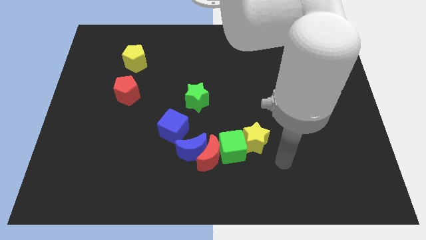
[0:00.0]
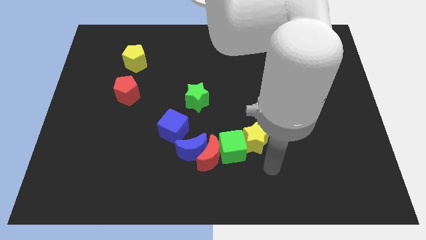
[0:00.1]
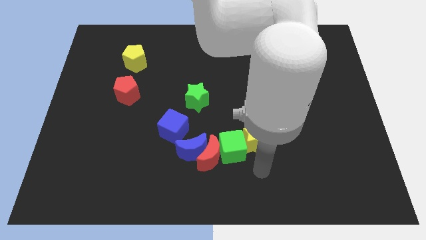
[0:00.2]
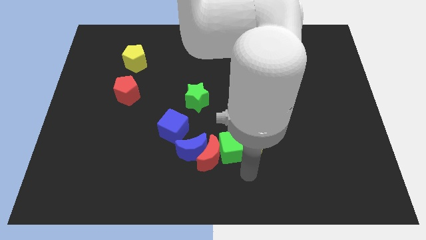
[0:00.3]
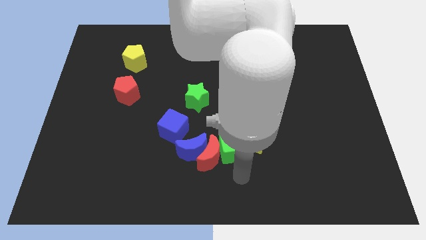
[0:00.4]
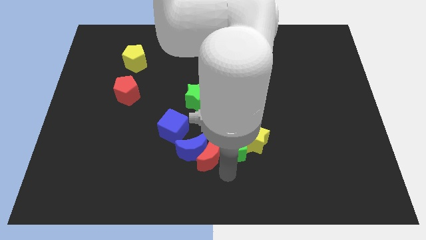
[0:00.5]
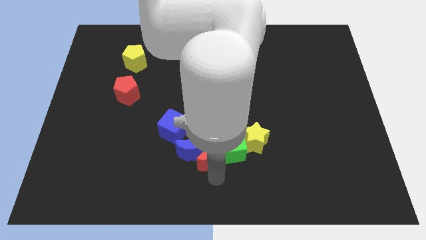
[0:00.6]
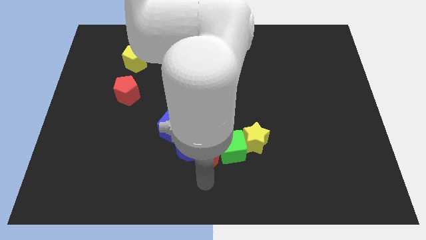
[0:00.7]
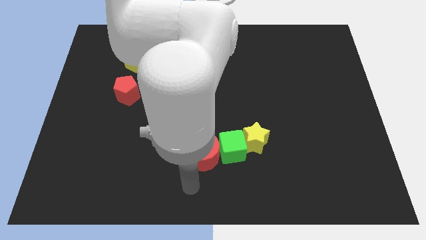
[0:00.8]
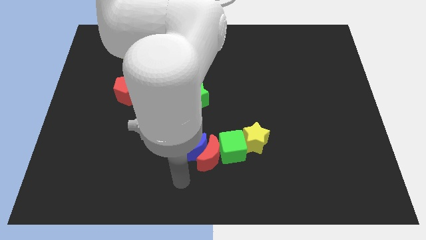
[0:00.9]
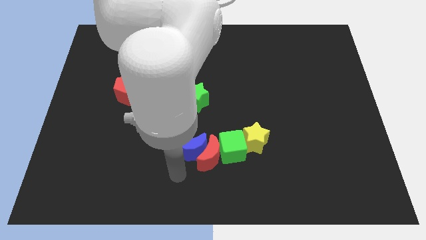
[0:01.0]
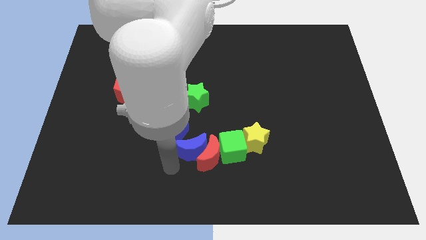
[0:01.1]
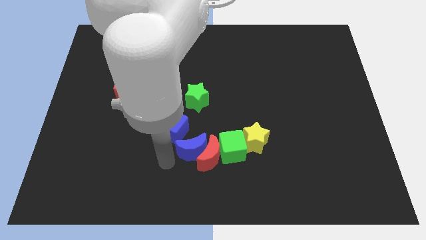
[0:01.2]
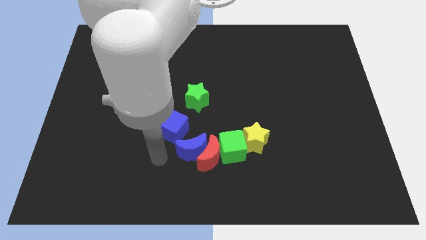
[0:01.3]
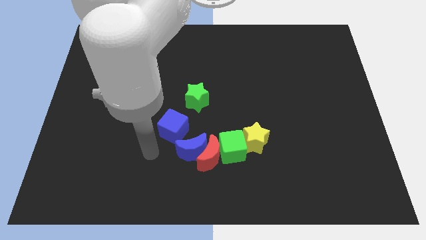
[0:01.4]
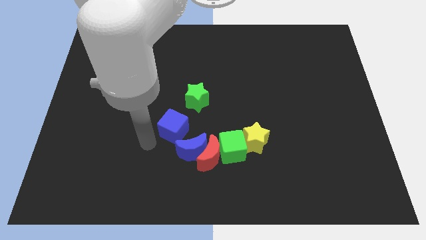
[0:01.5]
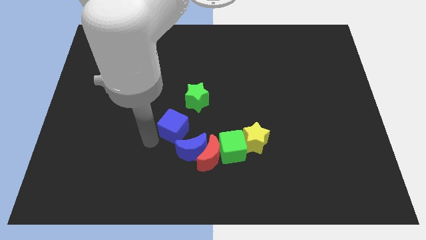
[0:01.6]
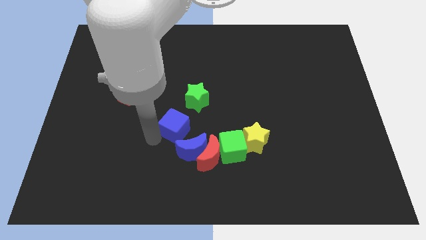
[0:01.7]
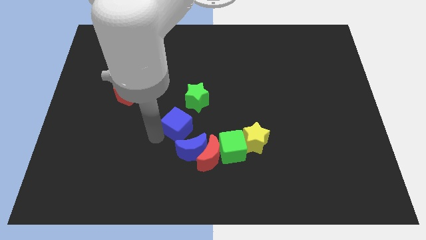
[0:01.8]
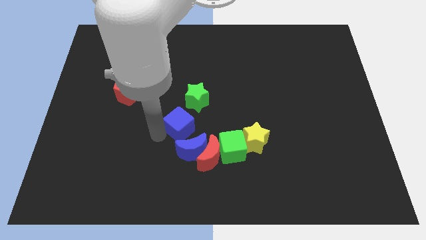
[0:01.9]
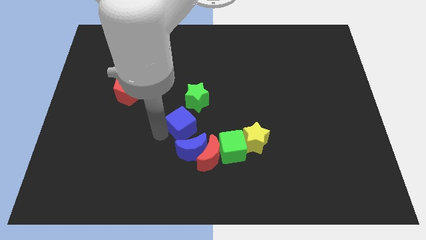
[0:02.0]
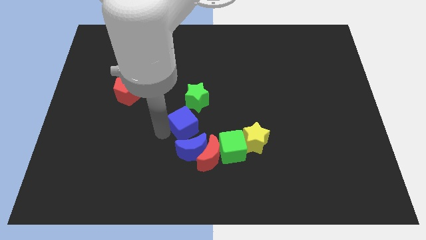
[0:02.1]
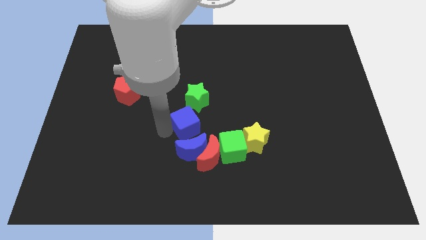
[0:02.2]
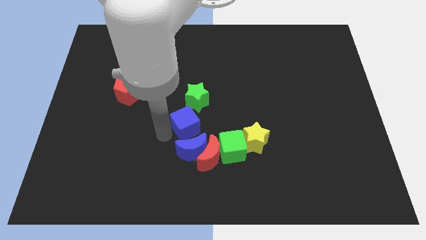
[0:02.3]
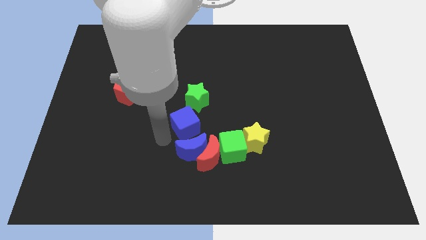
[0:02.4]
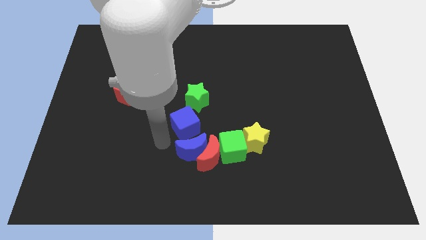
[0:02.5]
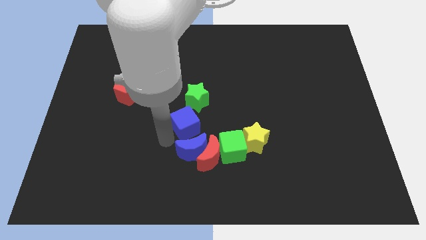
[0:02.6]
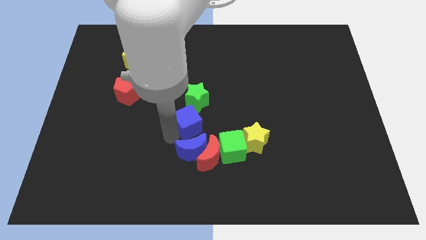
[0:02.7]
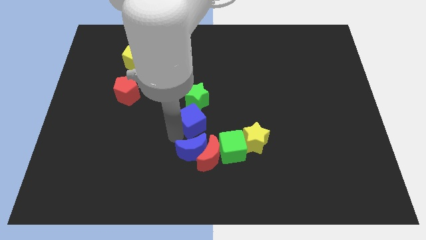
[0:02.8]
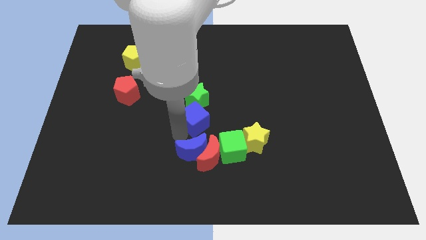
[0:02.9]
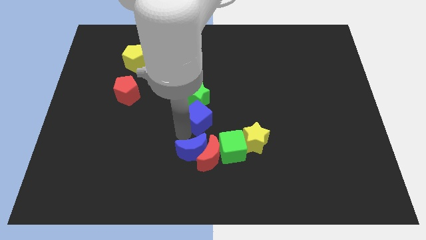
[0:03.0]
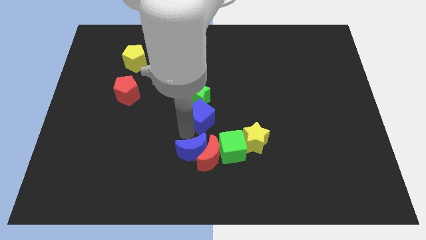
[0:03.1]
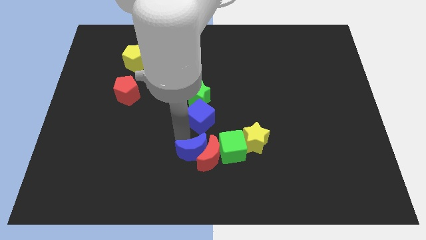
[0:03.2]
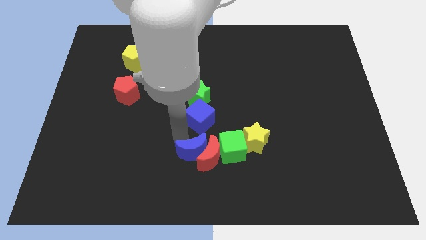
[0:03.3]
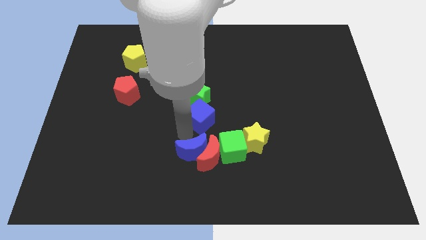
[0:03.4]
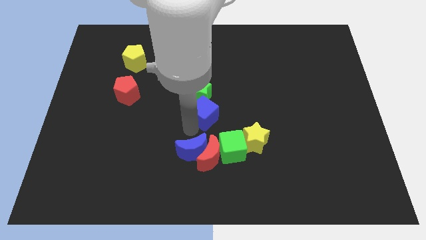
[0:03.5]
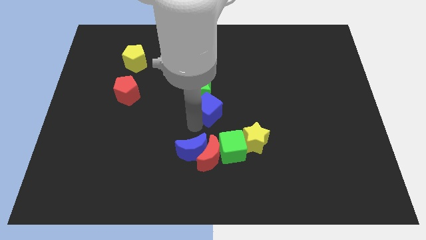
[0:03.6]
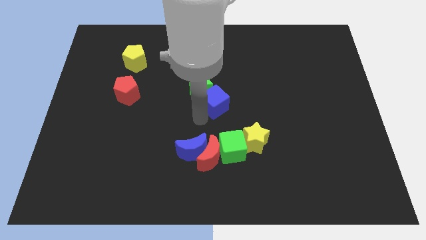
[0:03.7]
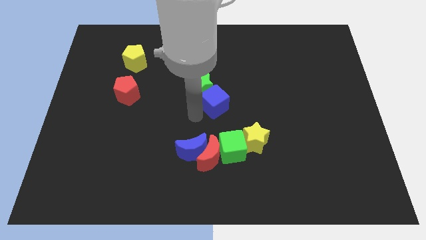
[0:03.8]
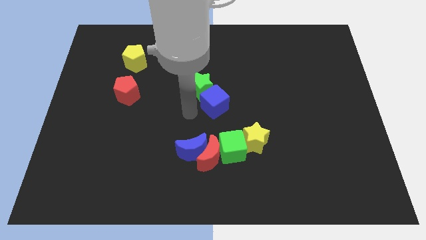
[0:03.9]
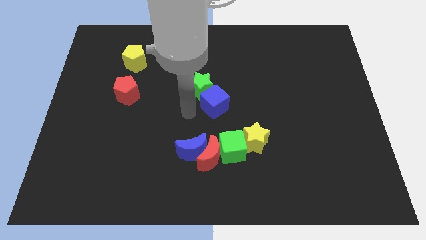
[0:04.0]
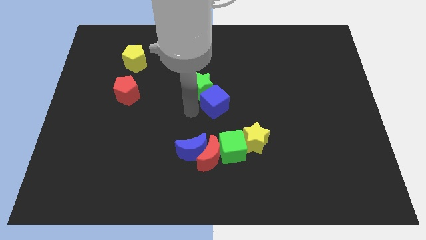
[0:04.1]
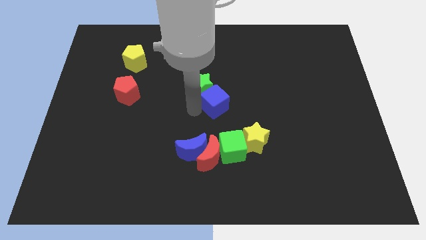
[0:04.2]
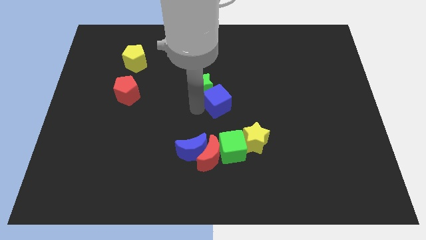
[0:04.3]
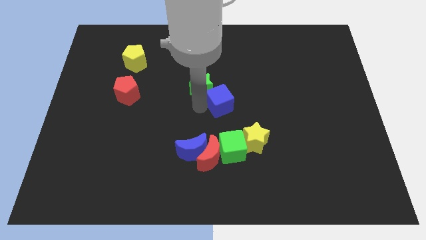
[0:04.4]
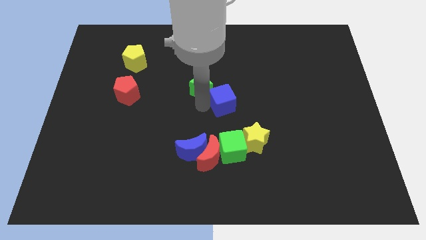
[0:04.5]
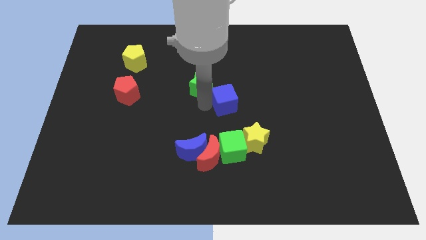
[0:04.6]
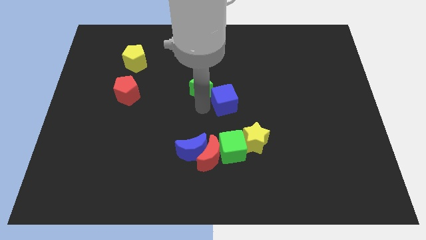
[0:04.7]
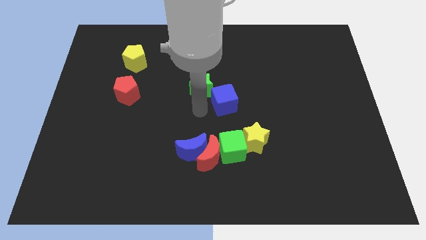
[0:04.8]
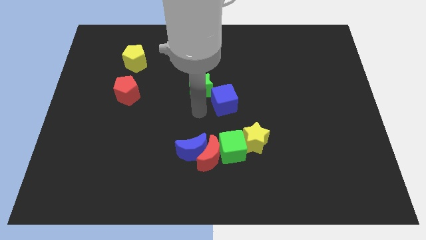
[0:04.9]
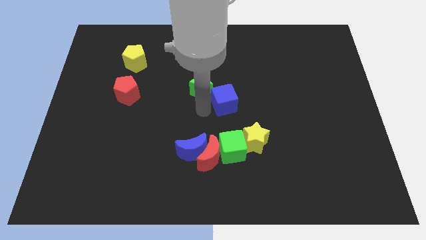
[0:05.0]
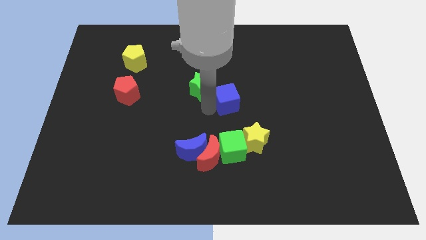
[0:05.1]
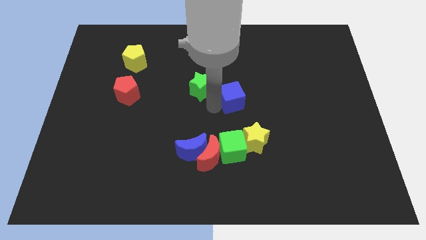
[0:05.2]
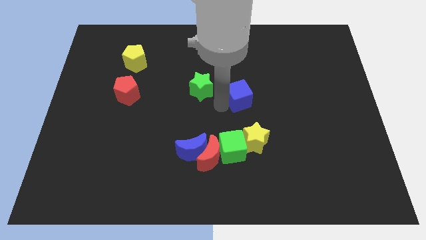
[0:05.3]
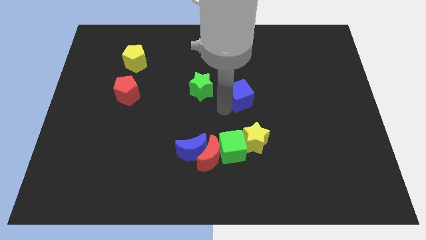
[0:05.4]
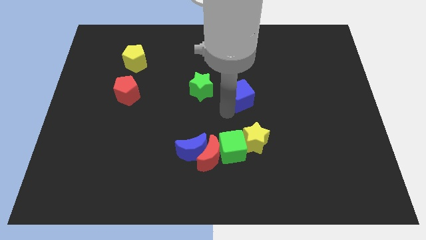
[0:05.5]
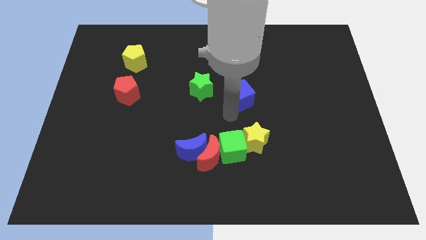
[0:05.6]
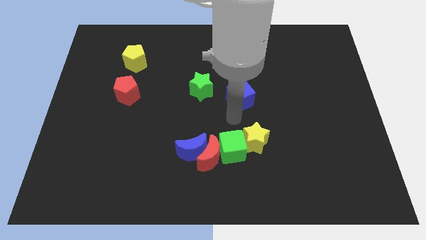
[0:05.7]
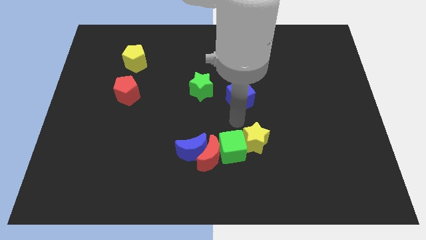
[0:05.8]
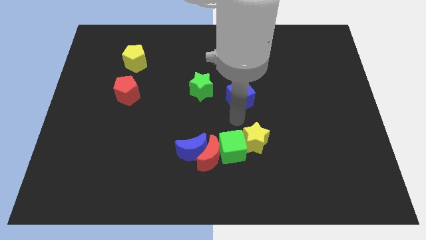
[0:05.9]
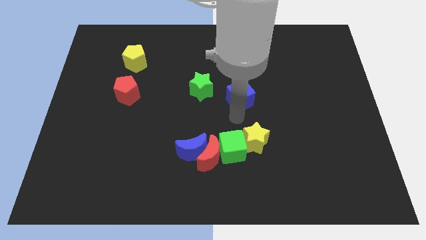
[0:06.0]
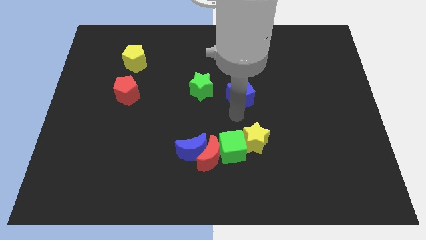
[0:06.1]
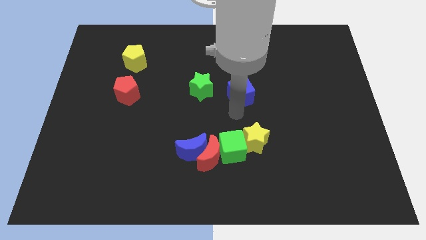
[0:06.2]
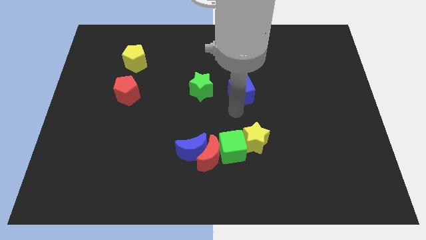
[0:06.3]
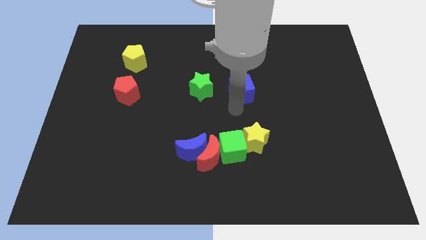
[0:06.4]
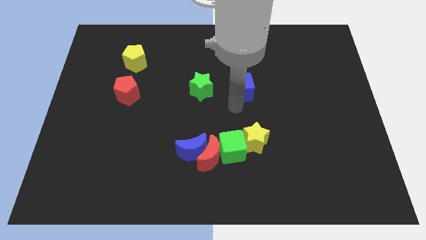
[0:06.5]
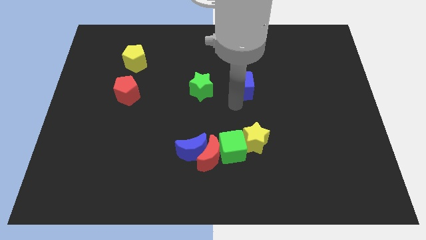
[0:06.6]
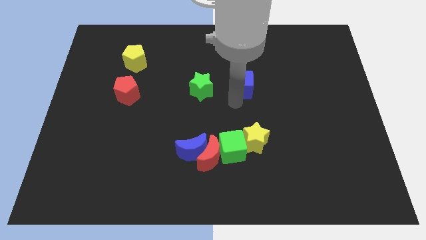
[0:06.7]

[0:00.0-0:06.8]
slide the blue cube upwards and right

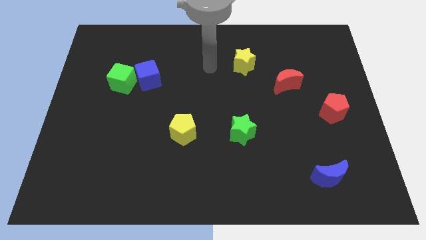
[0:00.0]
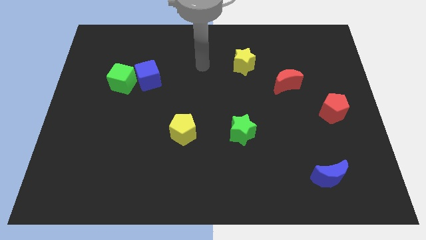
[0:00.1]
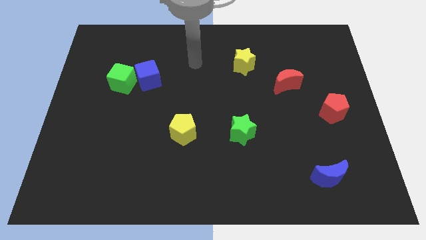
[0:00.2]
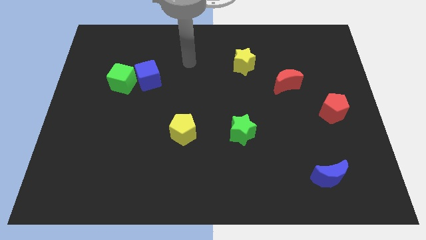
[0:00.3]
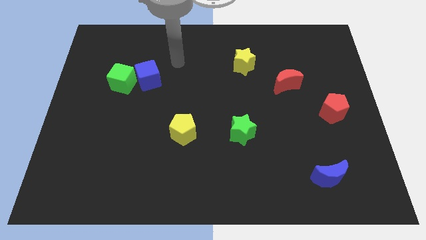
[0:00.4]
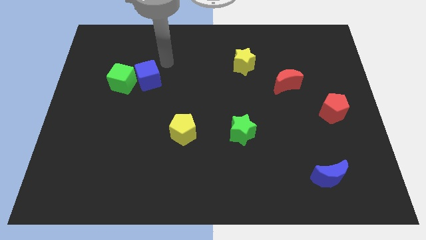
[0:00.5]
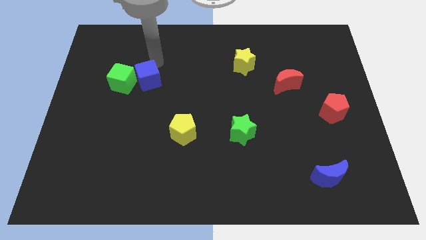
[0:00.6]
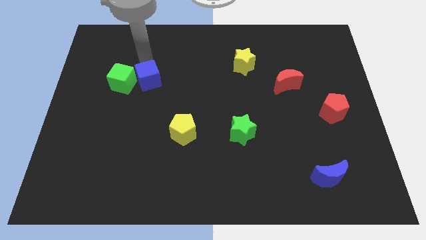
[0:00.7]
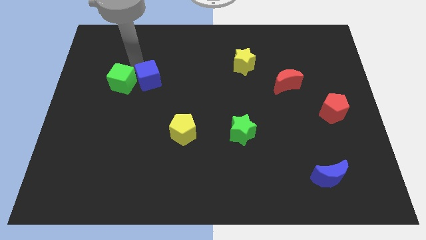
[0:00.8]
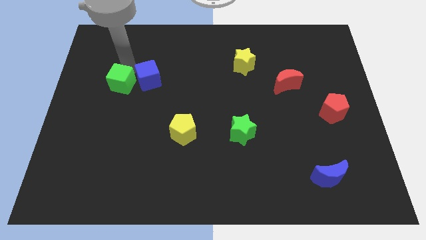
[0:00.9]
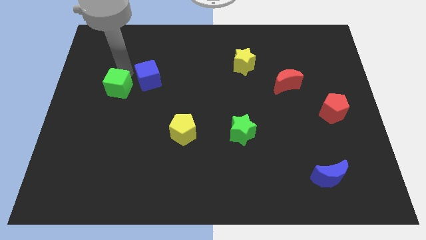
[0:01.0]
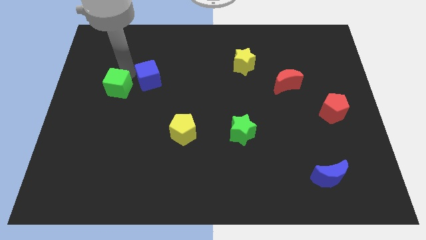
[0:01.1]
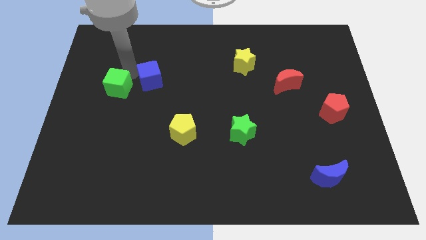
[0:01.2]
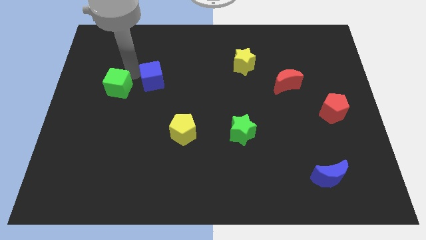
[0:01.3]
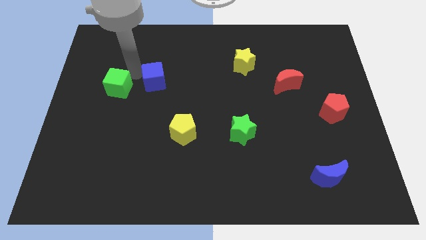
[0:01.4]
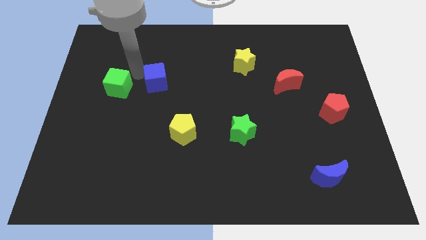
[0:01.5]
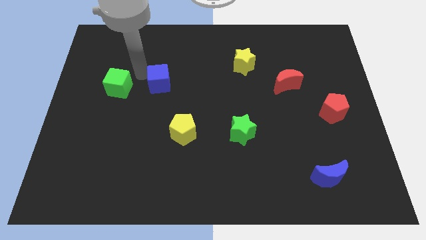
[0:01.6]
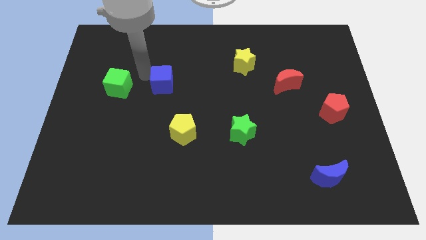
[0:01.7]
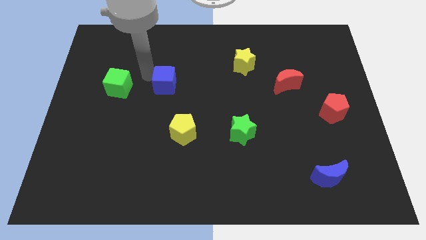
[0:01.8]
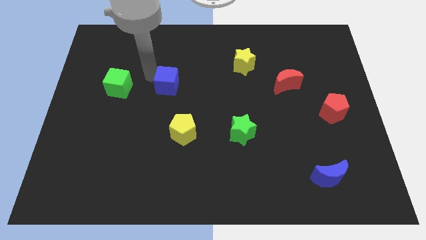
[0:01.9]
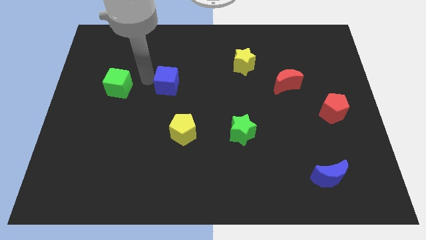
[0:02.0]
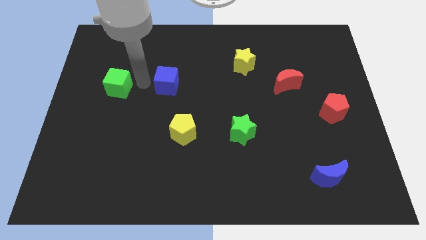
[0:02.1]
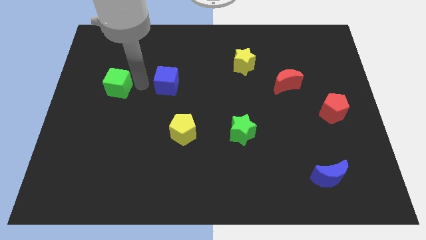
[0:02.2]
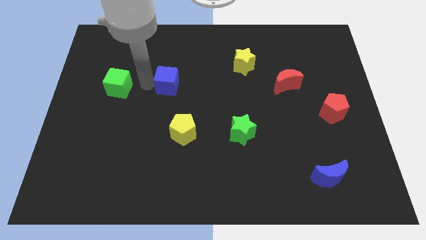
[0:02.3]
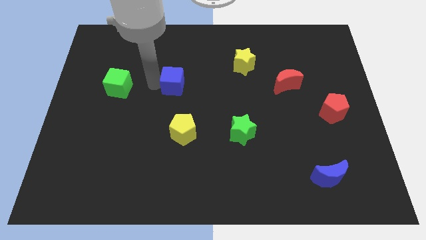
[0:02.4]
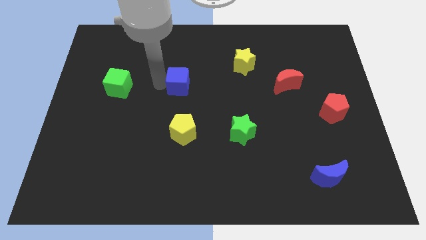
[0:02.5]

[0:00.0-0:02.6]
slightly slide the blue cube right
